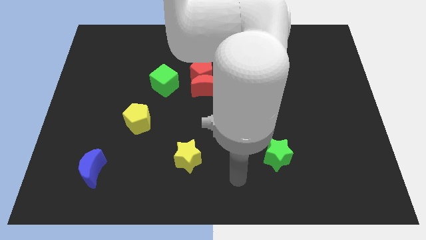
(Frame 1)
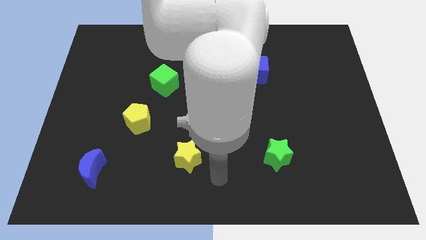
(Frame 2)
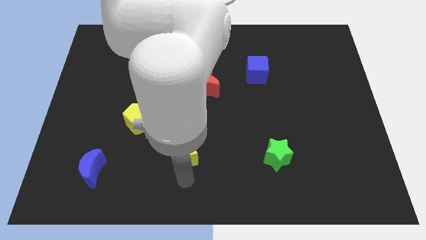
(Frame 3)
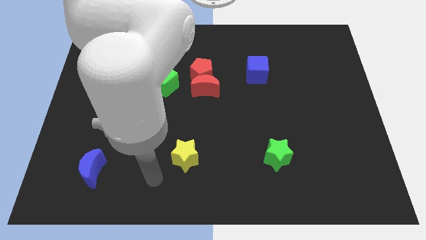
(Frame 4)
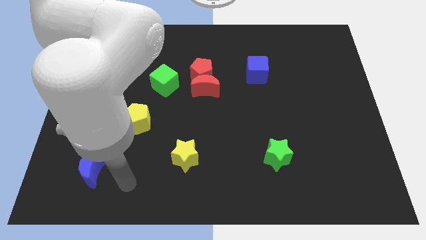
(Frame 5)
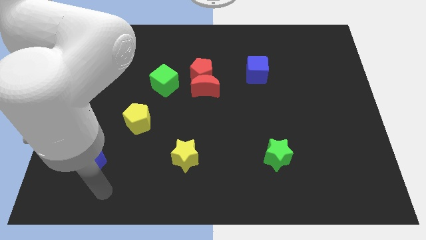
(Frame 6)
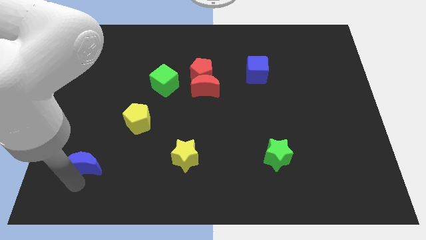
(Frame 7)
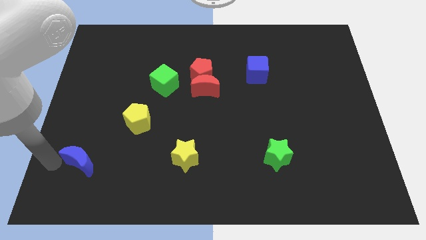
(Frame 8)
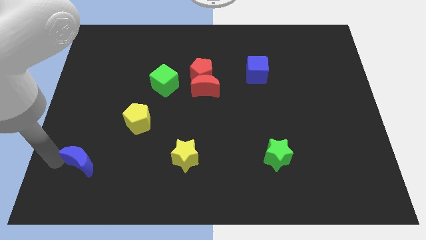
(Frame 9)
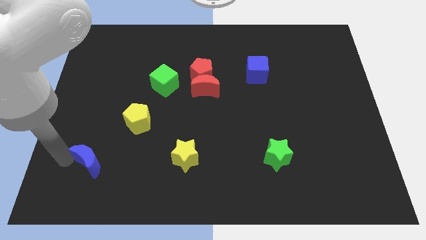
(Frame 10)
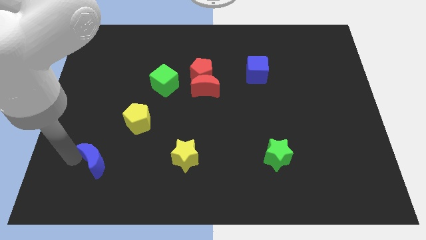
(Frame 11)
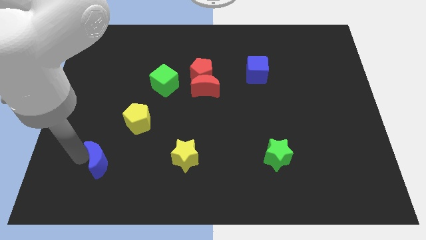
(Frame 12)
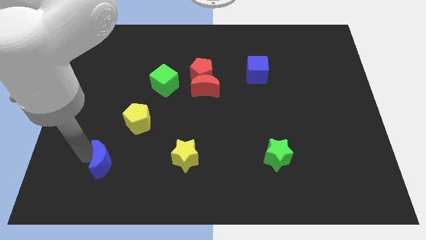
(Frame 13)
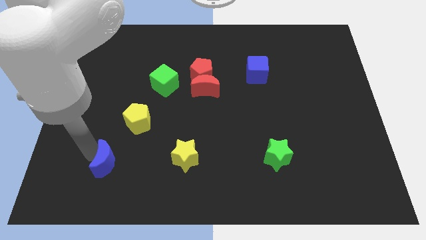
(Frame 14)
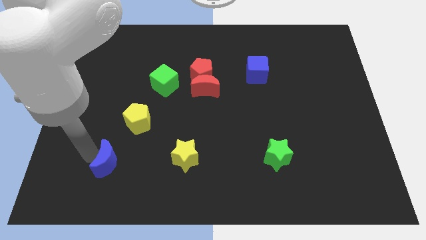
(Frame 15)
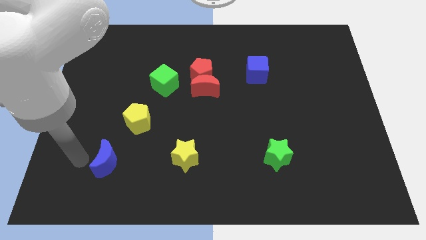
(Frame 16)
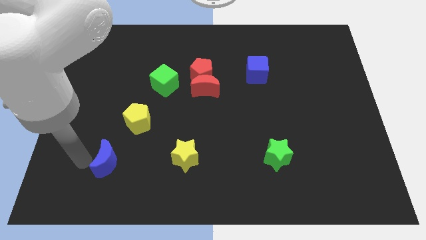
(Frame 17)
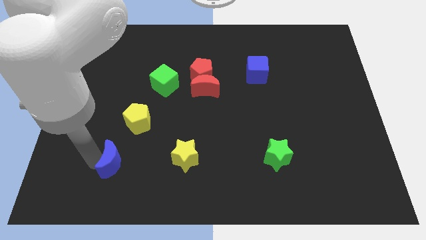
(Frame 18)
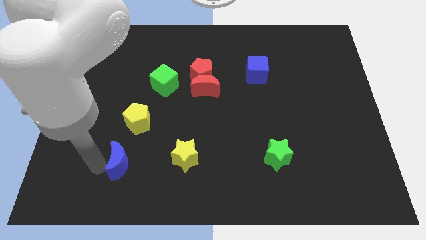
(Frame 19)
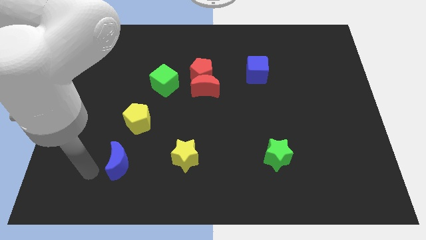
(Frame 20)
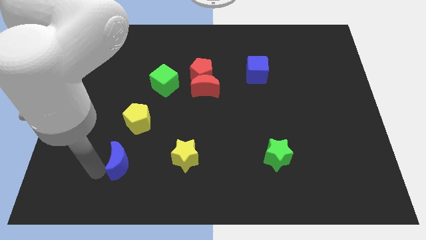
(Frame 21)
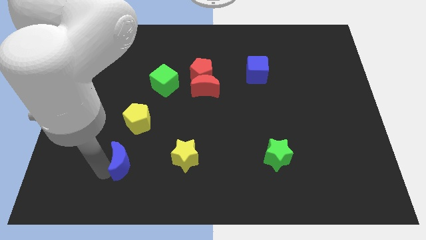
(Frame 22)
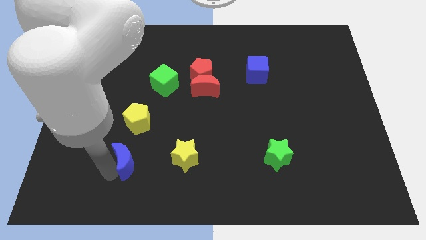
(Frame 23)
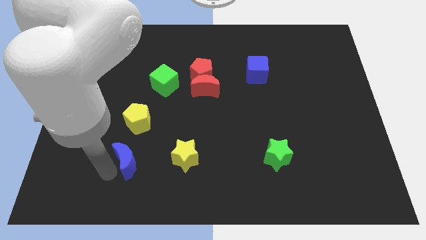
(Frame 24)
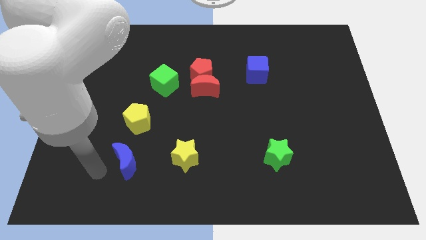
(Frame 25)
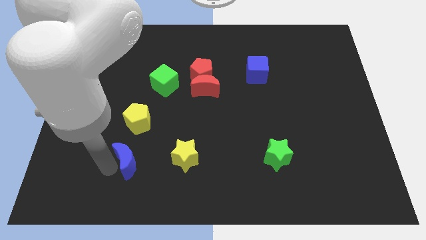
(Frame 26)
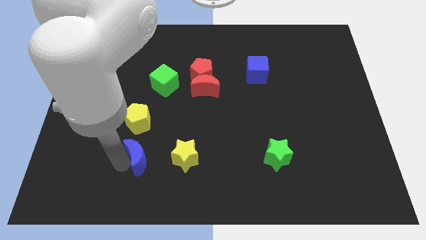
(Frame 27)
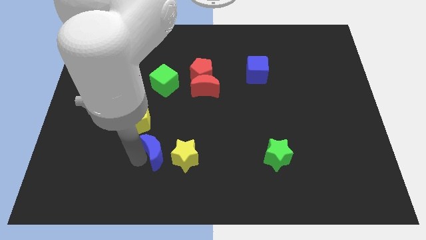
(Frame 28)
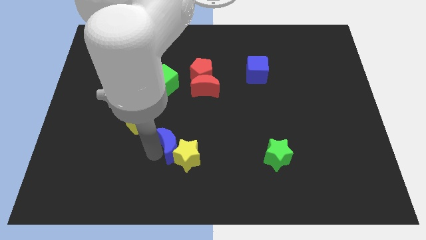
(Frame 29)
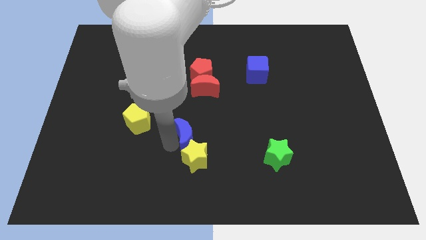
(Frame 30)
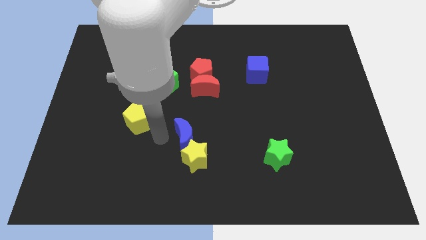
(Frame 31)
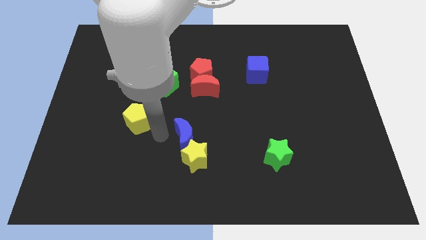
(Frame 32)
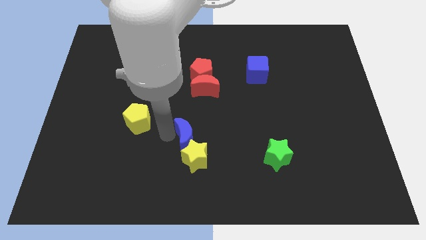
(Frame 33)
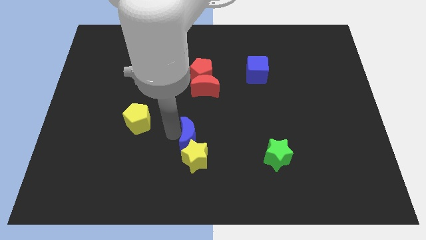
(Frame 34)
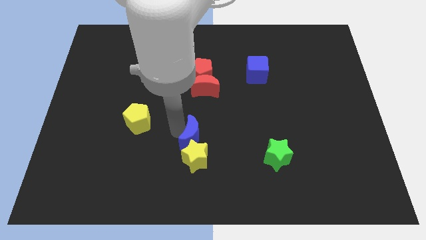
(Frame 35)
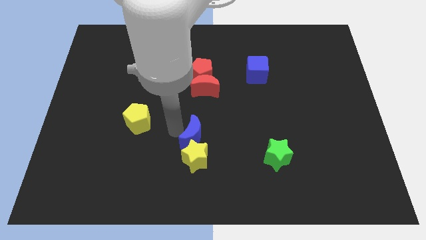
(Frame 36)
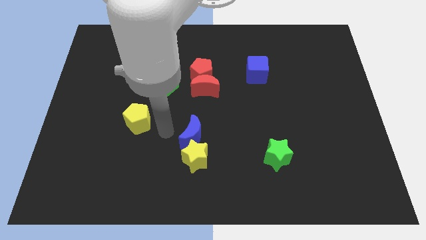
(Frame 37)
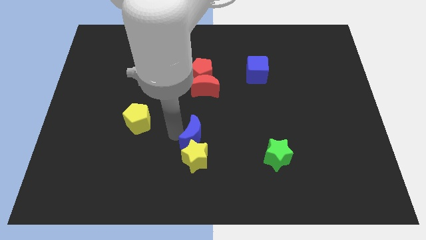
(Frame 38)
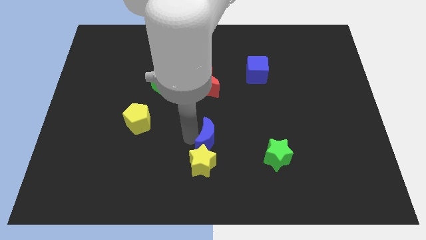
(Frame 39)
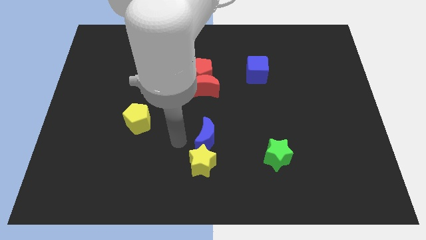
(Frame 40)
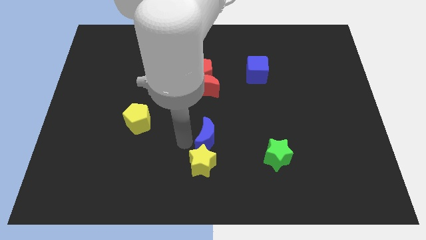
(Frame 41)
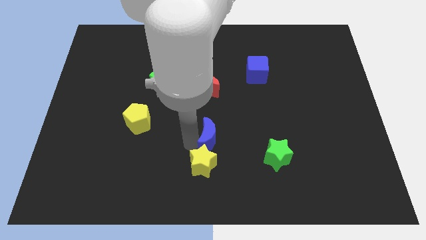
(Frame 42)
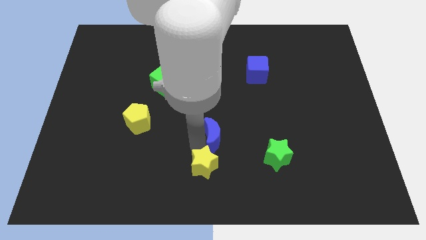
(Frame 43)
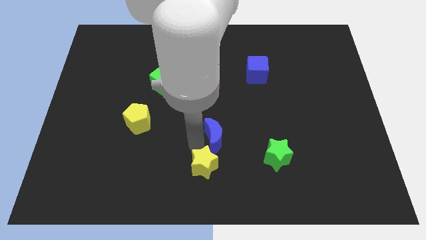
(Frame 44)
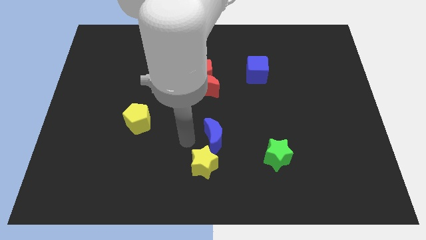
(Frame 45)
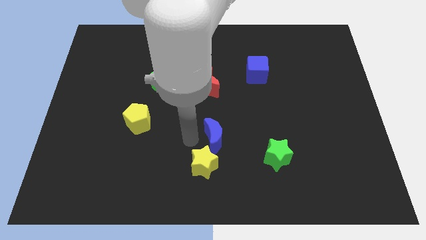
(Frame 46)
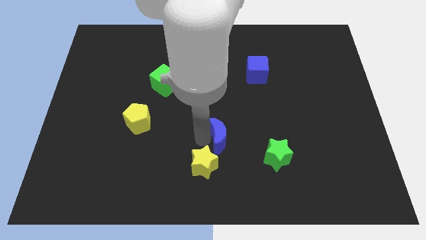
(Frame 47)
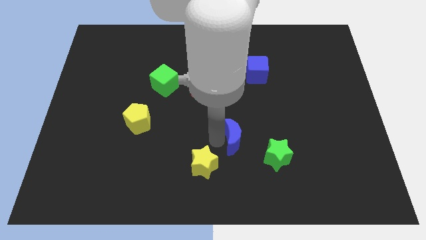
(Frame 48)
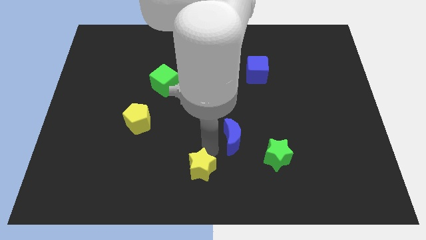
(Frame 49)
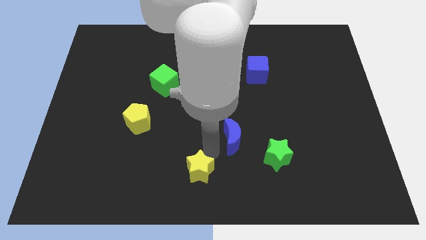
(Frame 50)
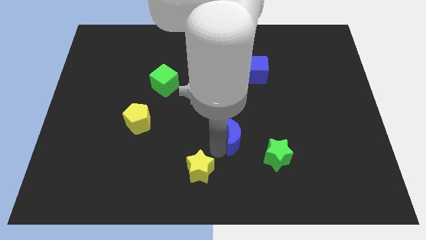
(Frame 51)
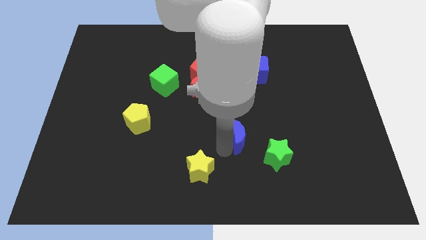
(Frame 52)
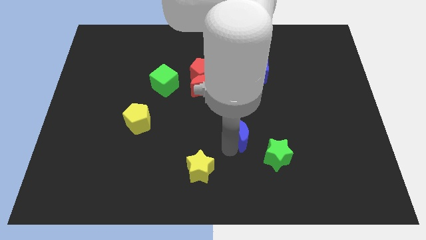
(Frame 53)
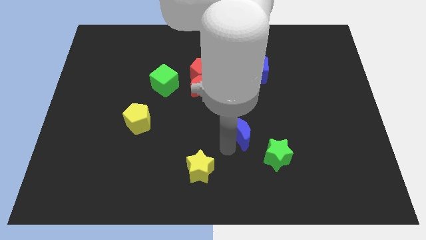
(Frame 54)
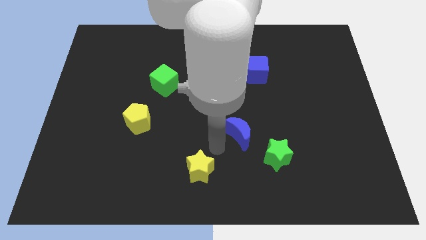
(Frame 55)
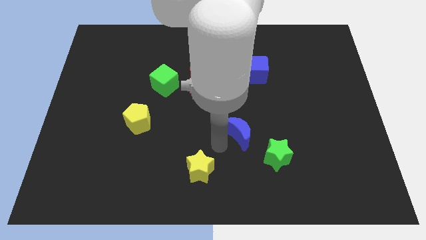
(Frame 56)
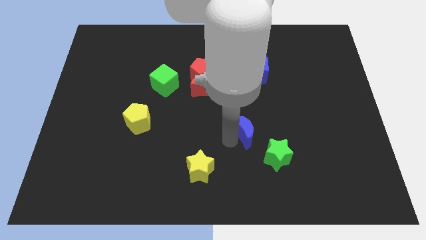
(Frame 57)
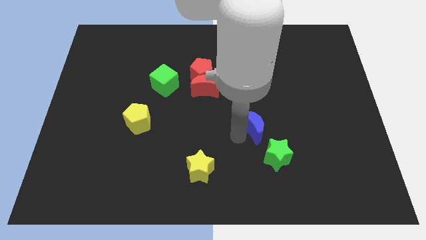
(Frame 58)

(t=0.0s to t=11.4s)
put the blue moon to the top of the green star

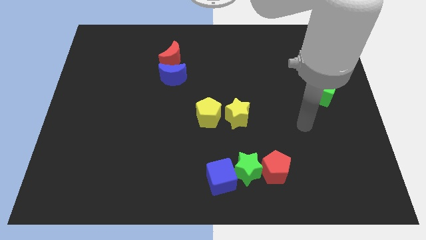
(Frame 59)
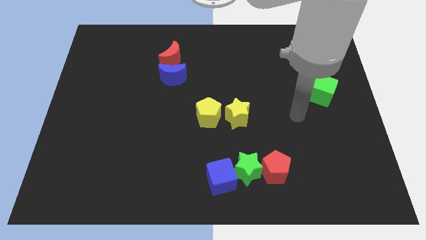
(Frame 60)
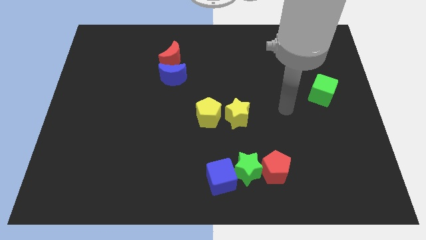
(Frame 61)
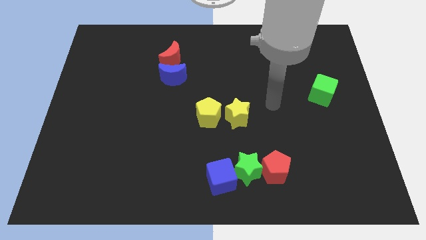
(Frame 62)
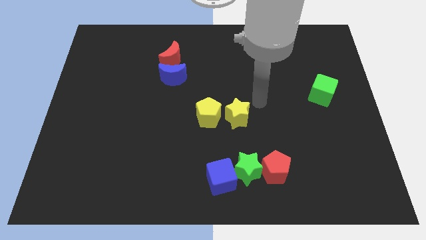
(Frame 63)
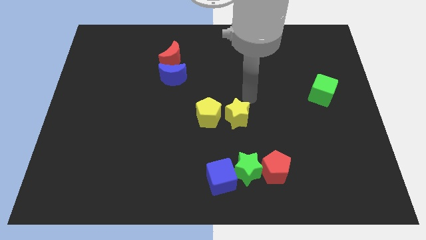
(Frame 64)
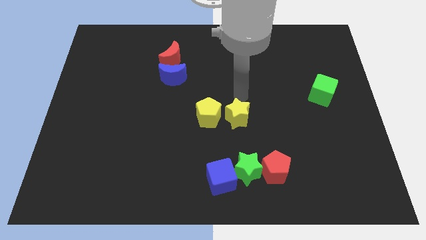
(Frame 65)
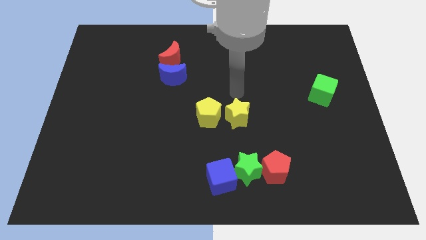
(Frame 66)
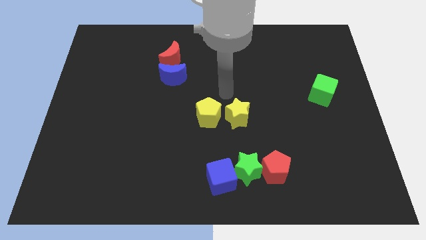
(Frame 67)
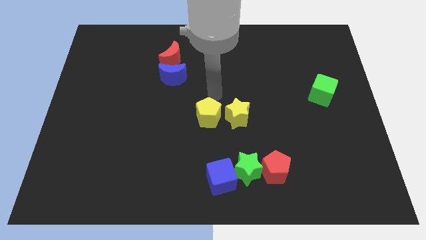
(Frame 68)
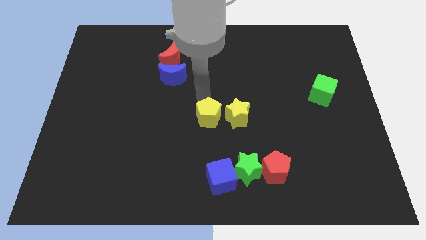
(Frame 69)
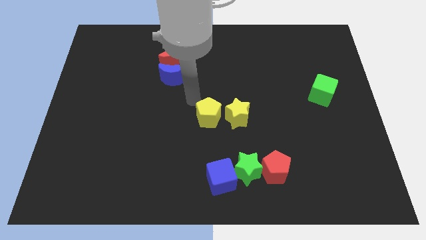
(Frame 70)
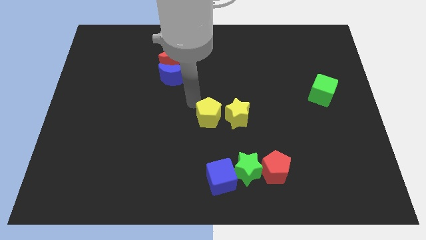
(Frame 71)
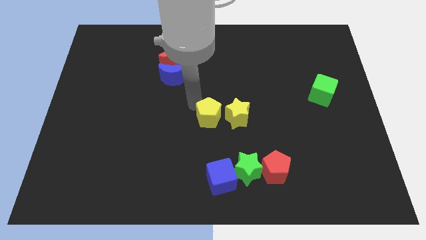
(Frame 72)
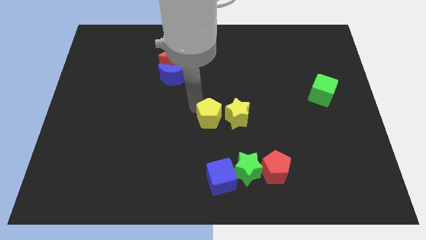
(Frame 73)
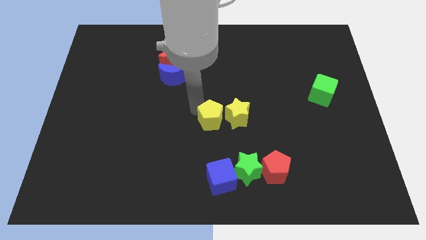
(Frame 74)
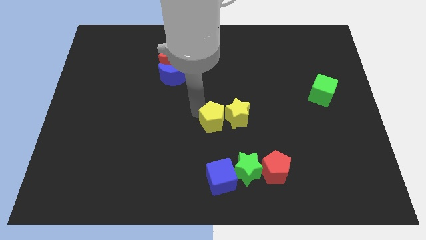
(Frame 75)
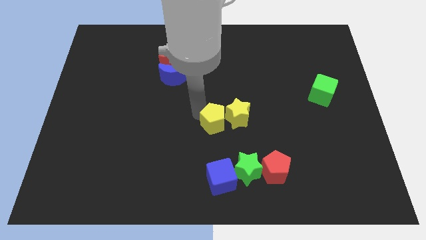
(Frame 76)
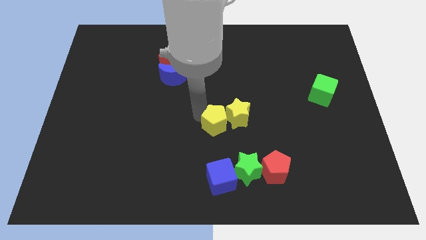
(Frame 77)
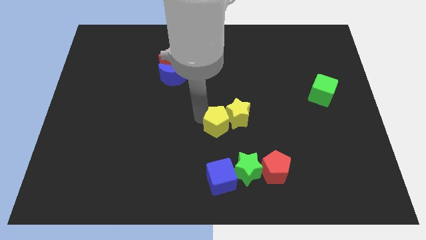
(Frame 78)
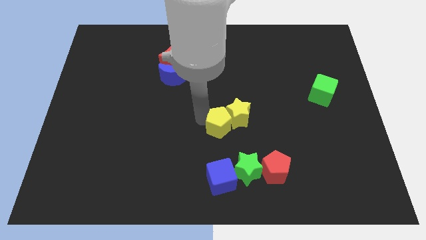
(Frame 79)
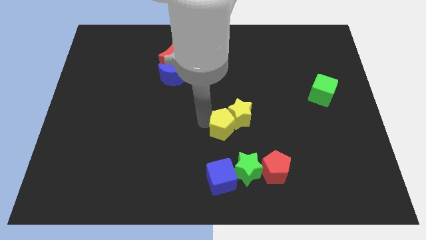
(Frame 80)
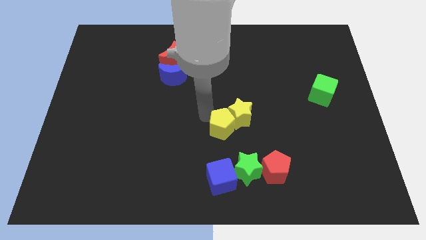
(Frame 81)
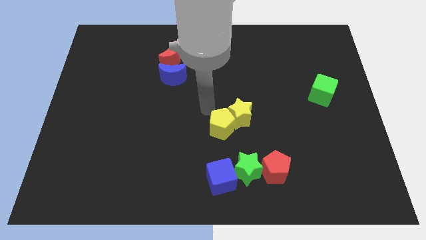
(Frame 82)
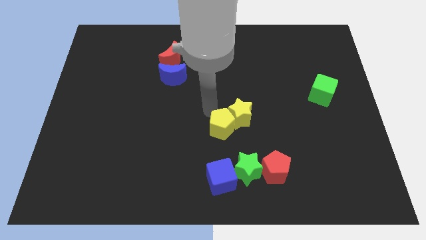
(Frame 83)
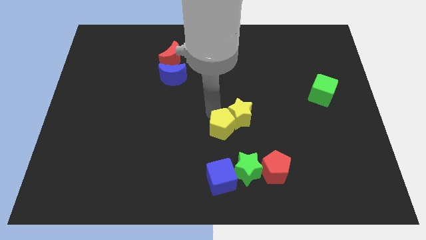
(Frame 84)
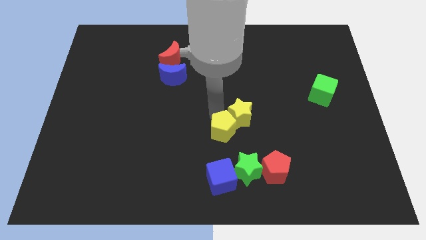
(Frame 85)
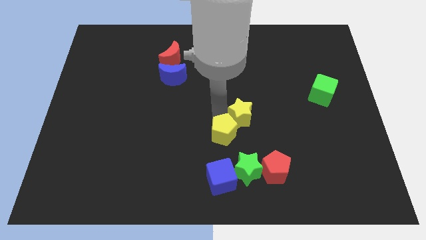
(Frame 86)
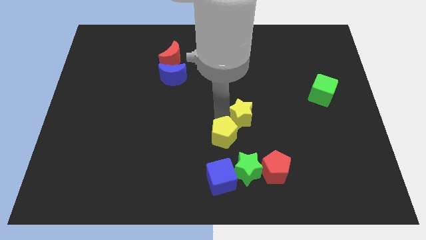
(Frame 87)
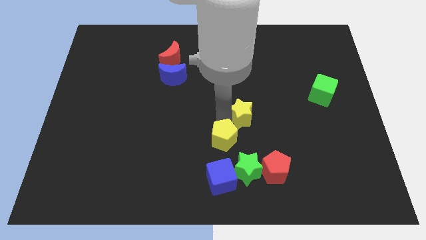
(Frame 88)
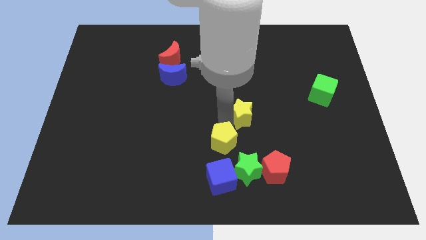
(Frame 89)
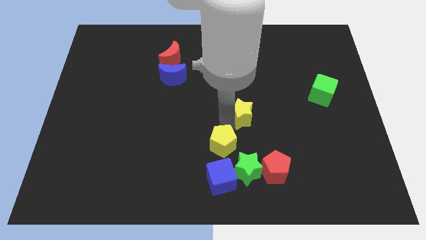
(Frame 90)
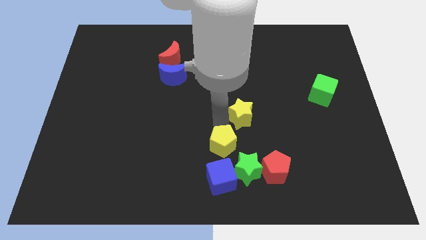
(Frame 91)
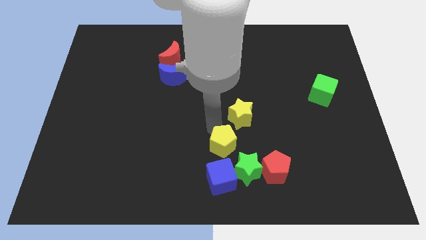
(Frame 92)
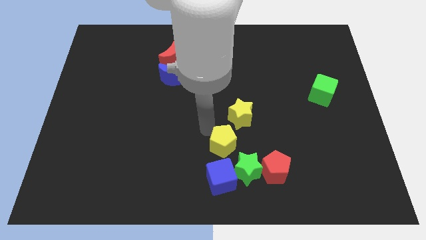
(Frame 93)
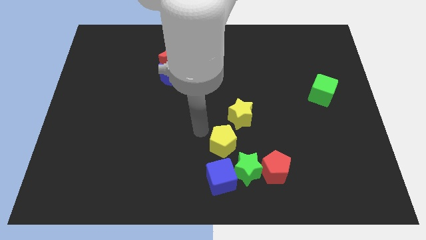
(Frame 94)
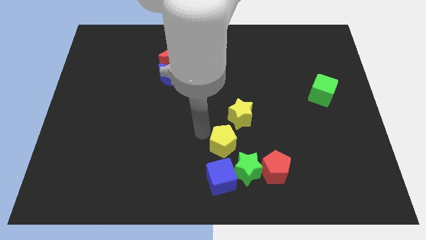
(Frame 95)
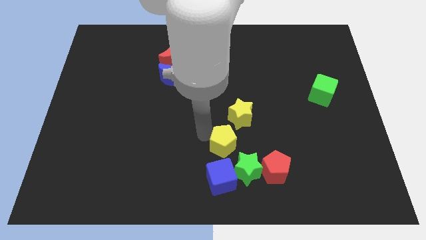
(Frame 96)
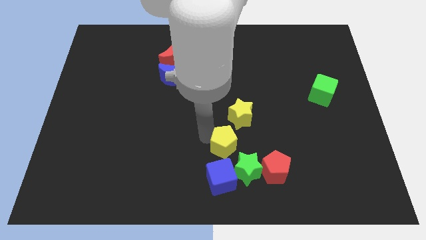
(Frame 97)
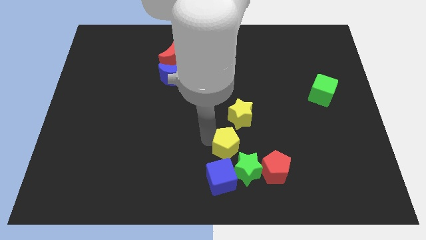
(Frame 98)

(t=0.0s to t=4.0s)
slide the yellow pentagon diagonally up and to the right of the blue cube
